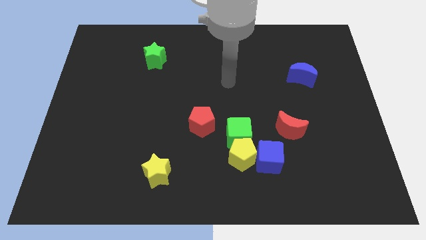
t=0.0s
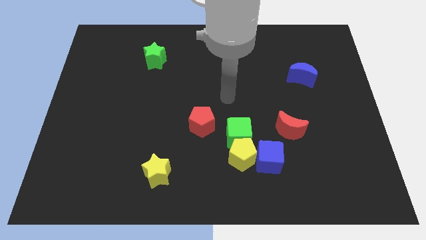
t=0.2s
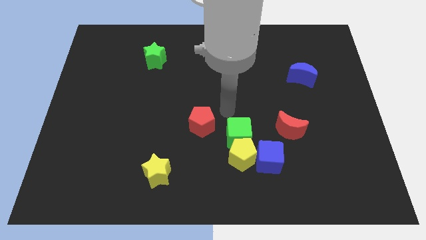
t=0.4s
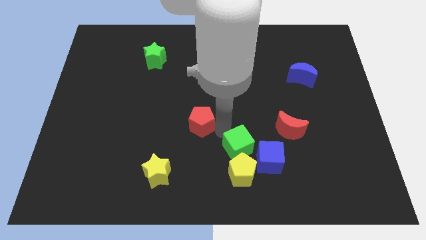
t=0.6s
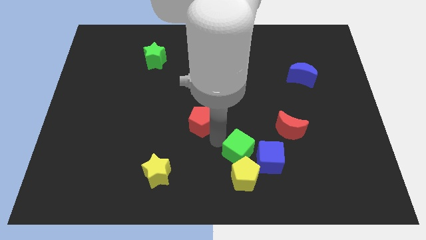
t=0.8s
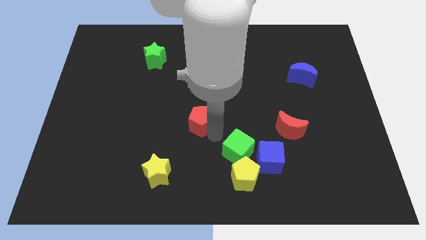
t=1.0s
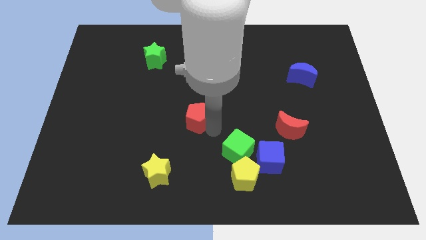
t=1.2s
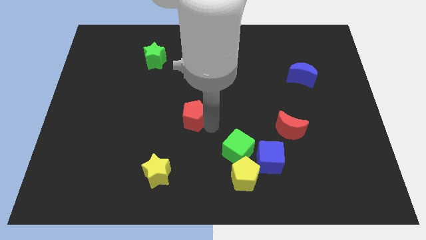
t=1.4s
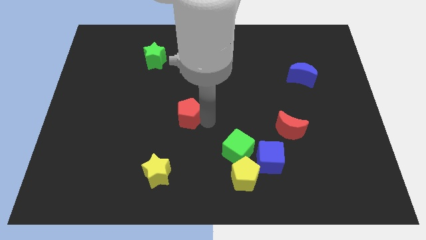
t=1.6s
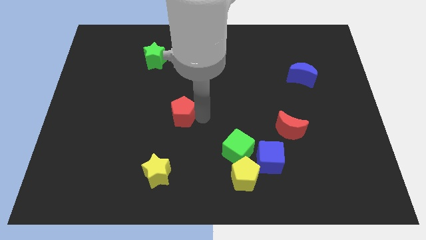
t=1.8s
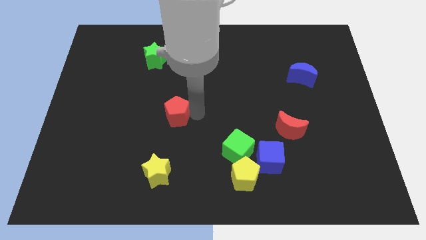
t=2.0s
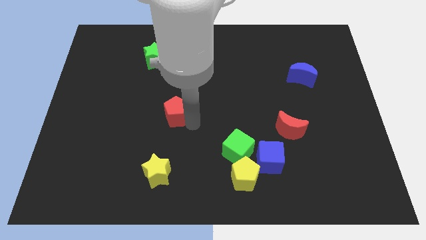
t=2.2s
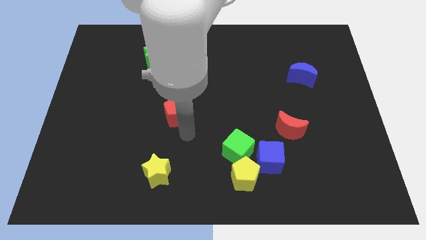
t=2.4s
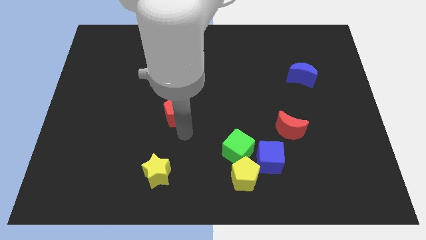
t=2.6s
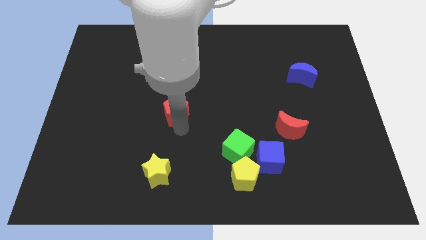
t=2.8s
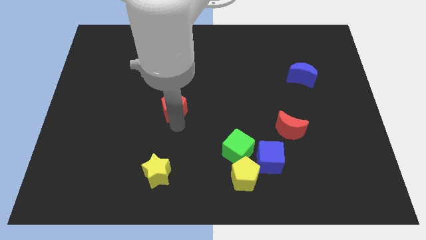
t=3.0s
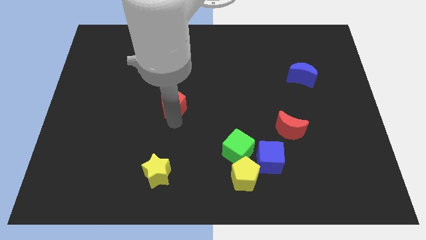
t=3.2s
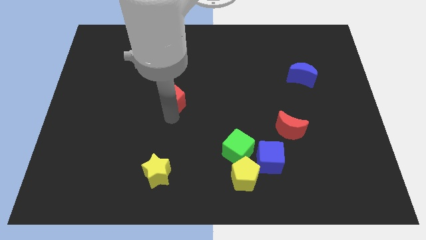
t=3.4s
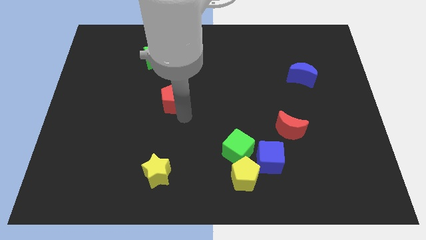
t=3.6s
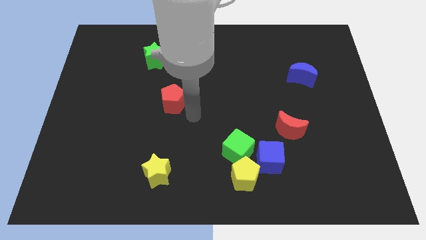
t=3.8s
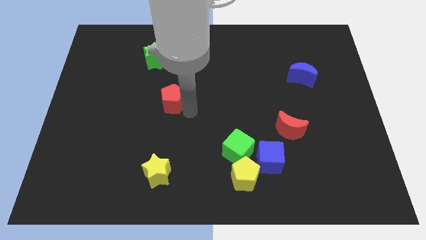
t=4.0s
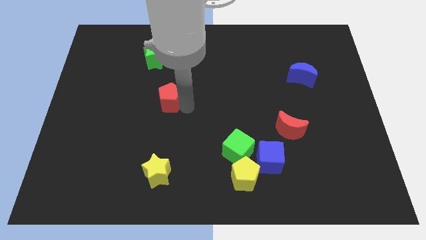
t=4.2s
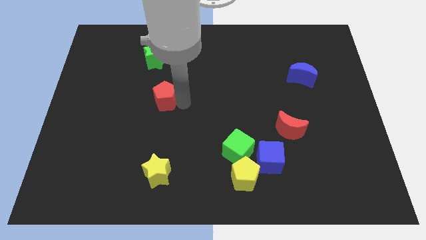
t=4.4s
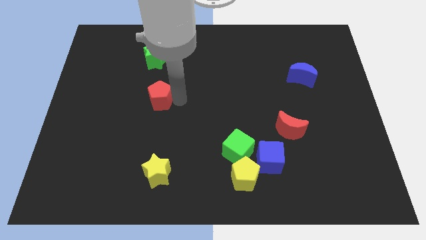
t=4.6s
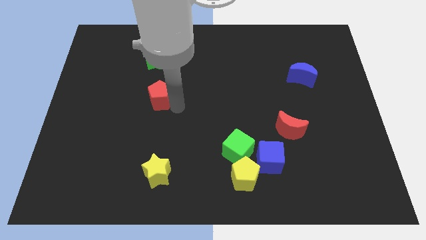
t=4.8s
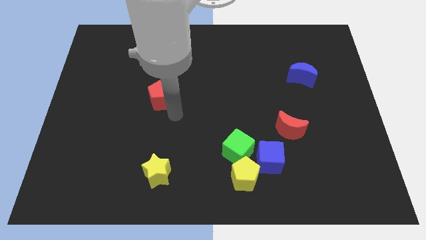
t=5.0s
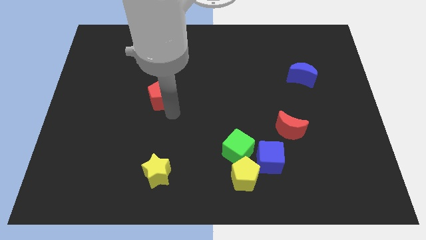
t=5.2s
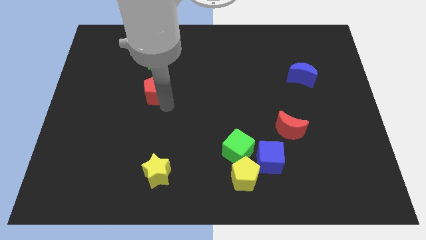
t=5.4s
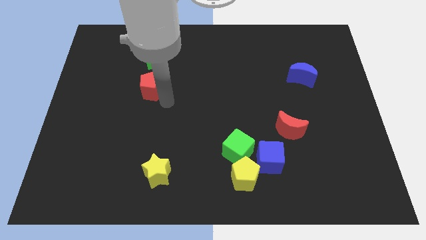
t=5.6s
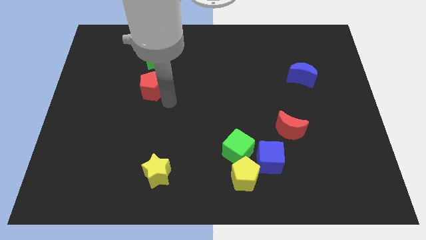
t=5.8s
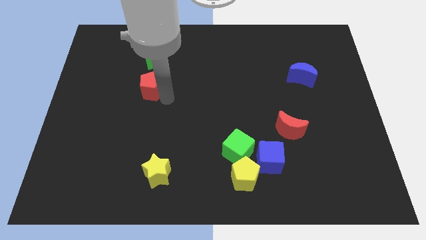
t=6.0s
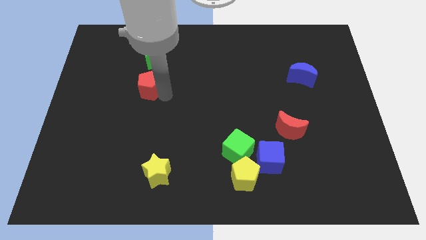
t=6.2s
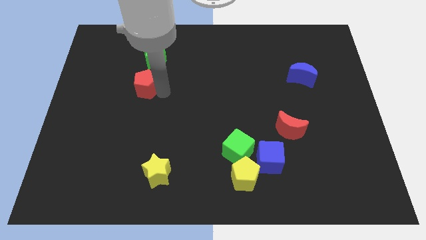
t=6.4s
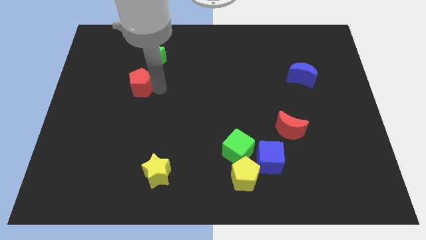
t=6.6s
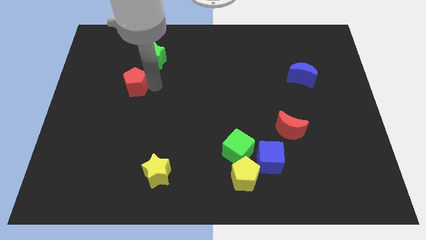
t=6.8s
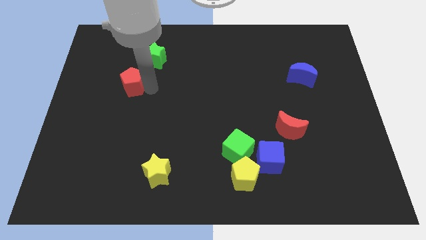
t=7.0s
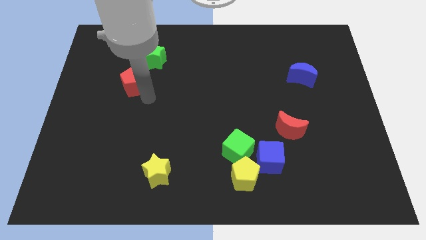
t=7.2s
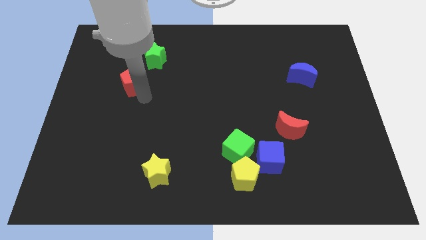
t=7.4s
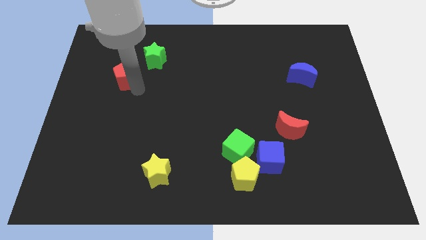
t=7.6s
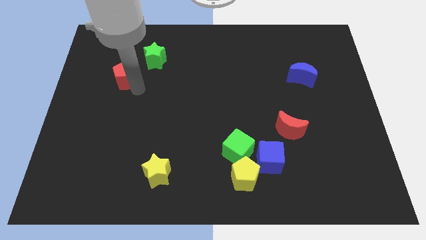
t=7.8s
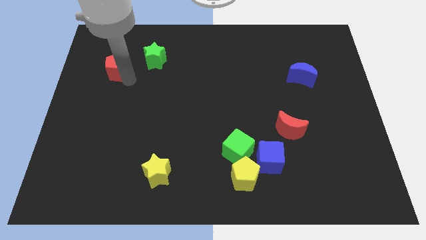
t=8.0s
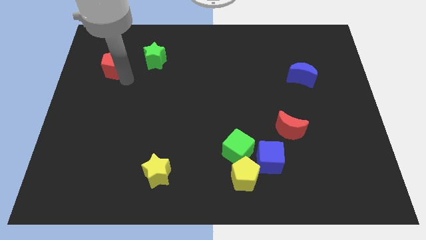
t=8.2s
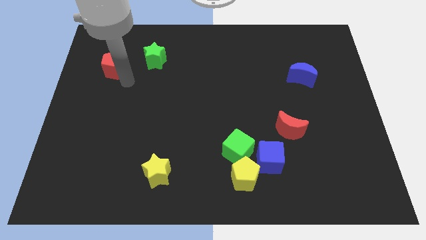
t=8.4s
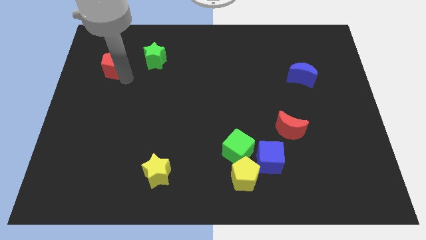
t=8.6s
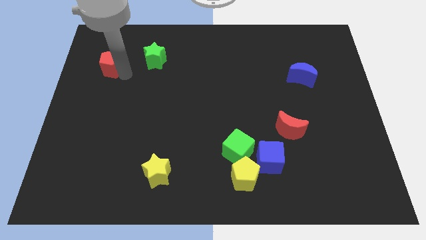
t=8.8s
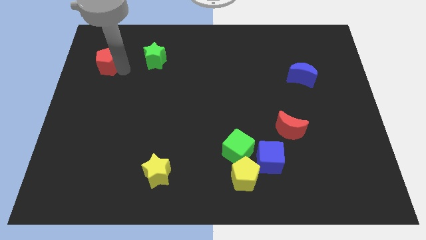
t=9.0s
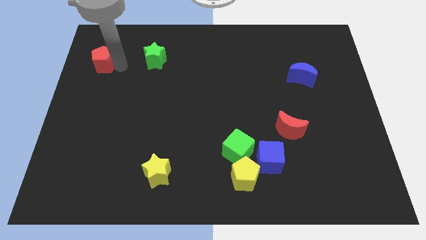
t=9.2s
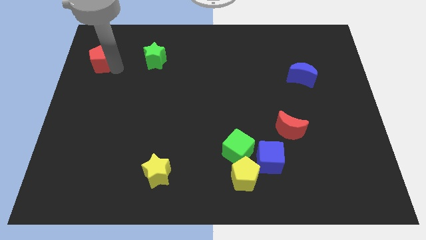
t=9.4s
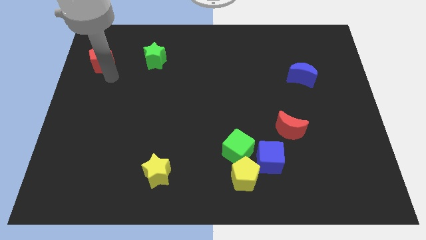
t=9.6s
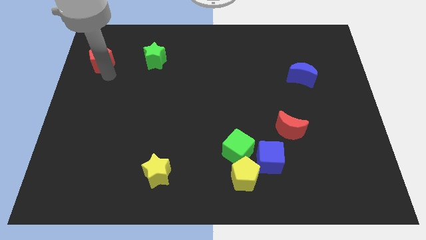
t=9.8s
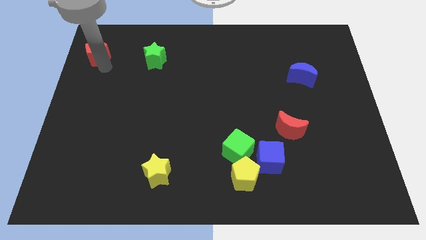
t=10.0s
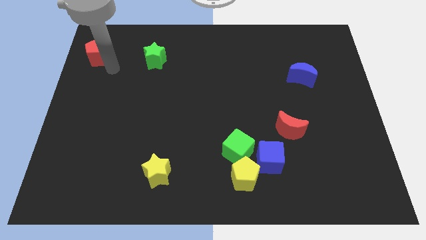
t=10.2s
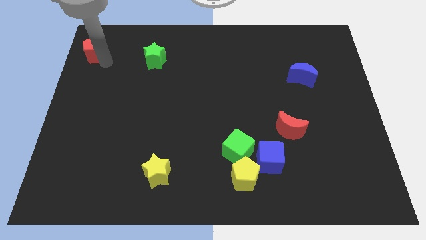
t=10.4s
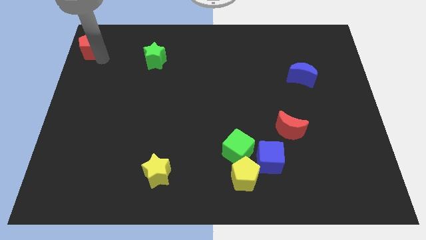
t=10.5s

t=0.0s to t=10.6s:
move the red pentagon to the top left of the board

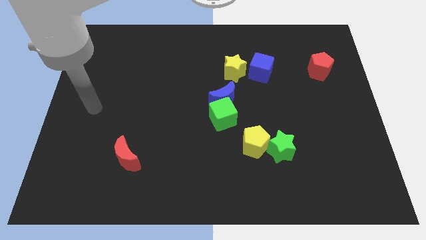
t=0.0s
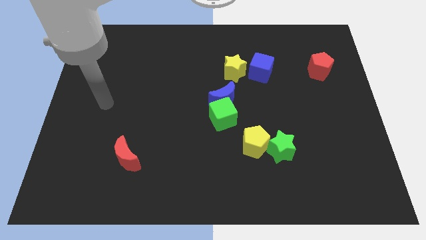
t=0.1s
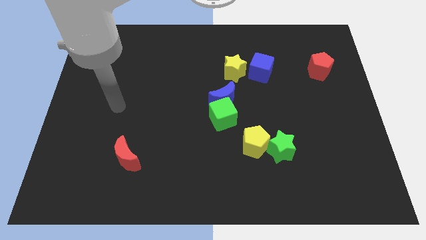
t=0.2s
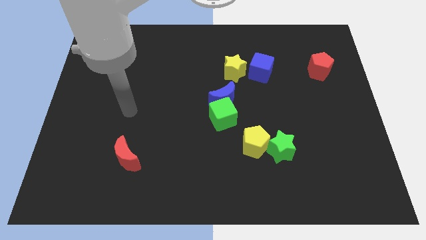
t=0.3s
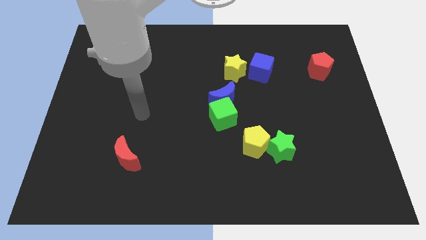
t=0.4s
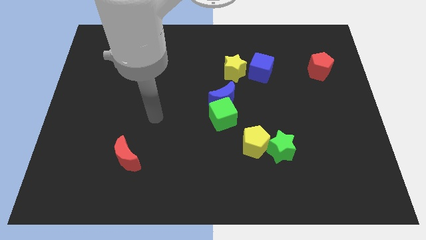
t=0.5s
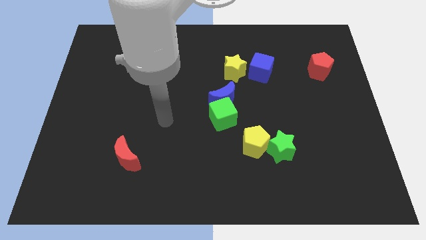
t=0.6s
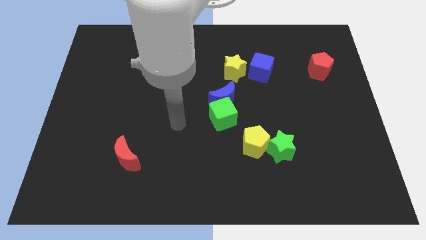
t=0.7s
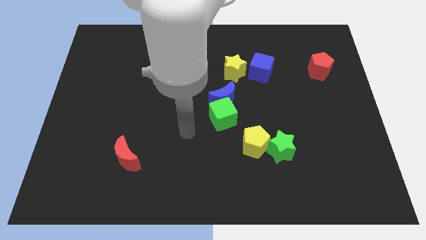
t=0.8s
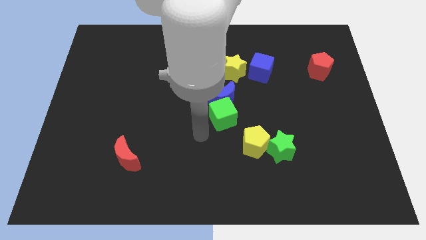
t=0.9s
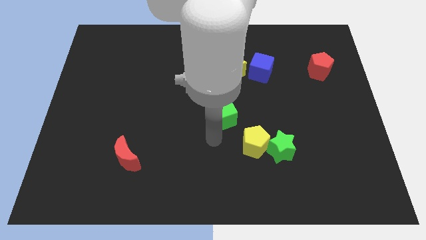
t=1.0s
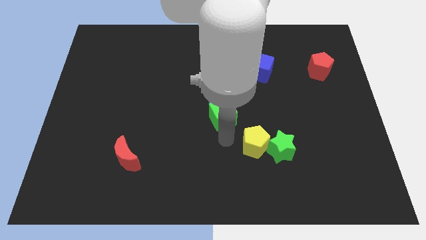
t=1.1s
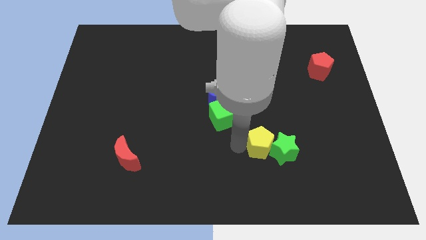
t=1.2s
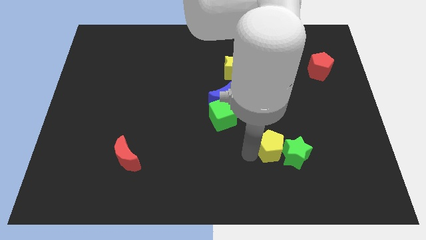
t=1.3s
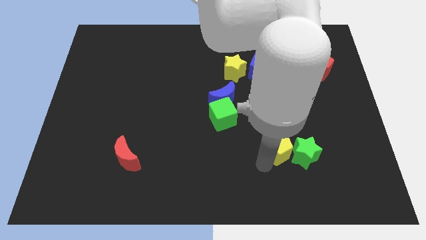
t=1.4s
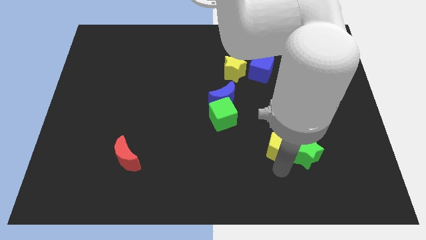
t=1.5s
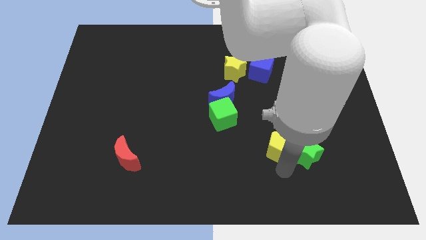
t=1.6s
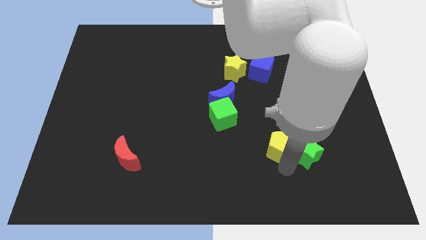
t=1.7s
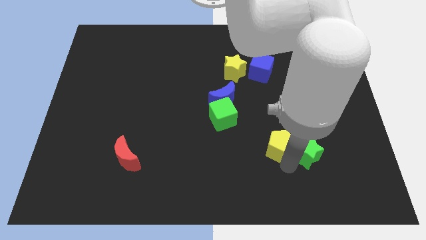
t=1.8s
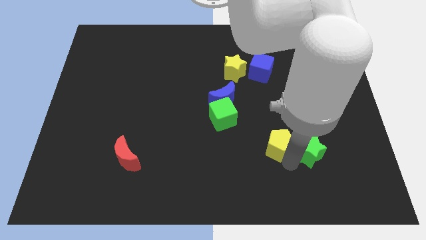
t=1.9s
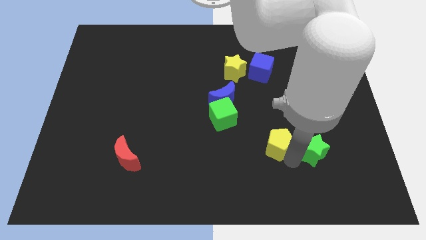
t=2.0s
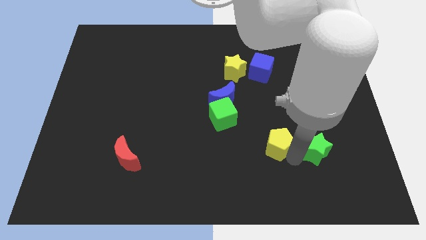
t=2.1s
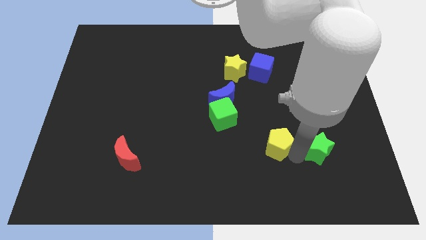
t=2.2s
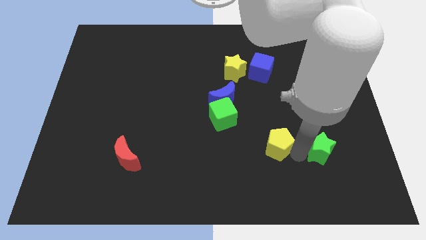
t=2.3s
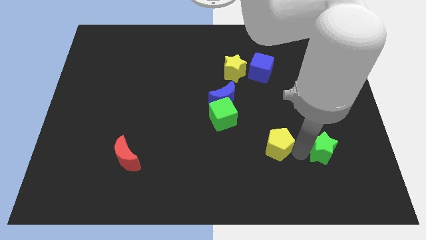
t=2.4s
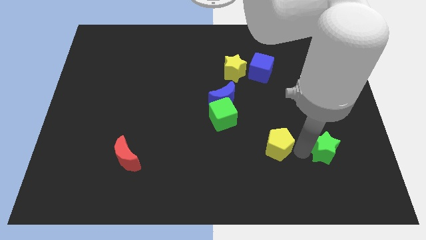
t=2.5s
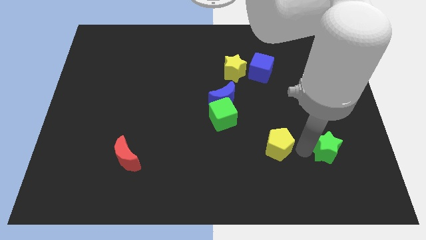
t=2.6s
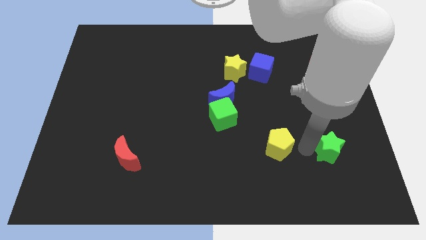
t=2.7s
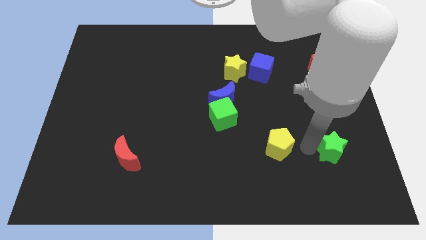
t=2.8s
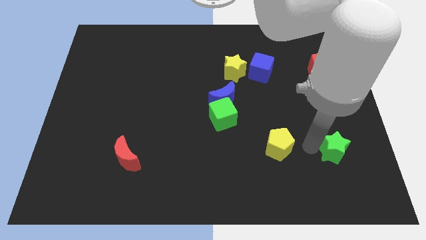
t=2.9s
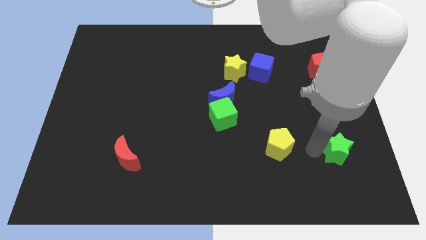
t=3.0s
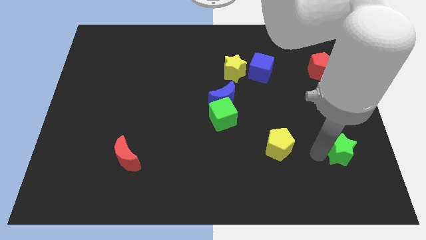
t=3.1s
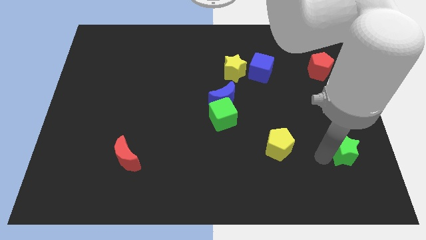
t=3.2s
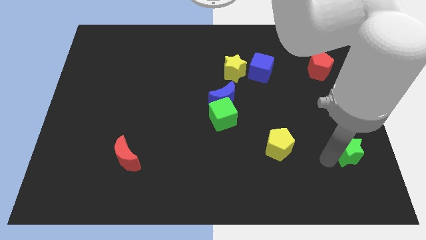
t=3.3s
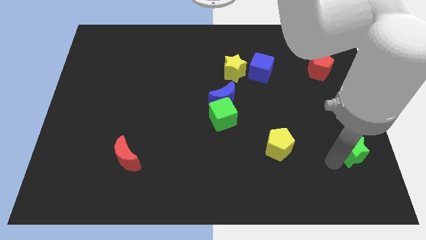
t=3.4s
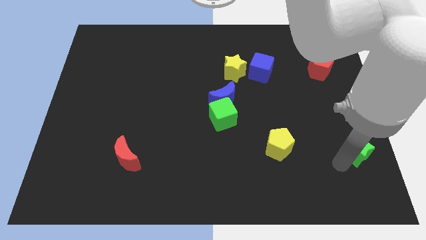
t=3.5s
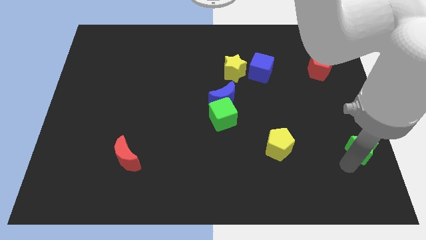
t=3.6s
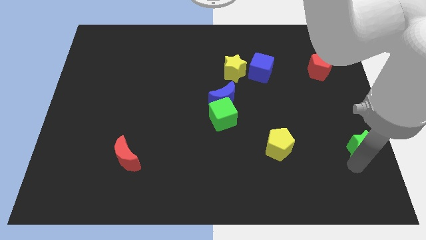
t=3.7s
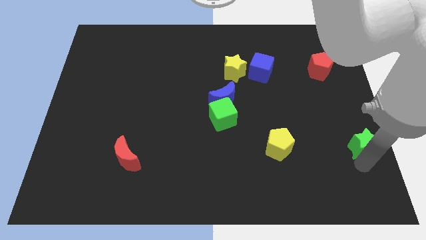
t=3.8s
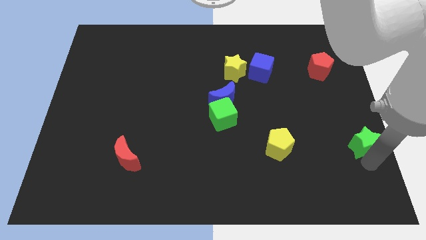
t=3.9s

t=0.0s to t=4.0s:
move the green star to the center right
